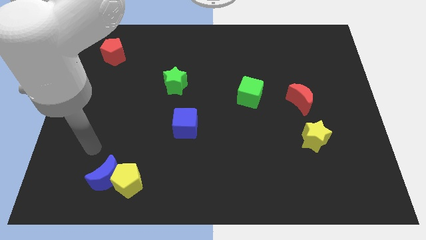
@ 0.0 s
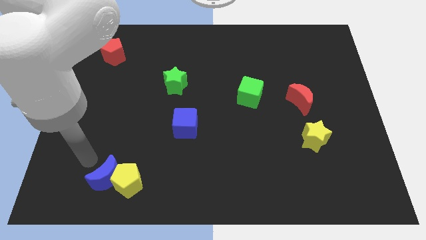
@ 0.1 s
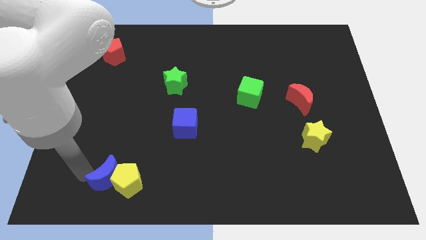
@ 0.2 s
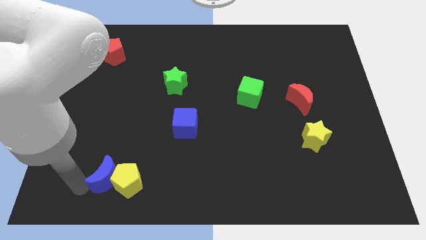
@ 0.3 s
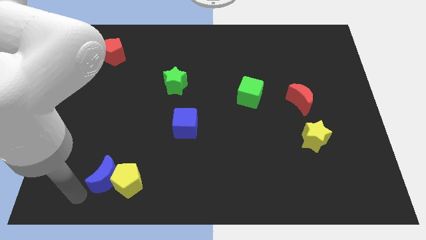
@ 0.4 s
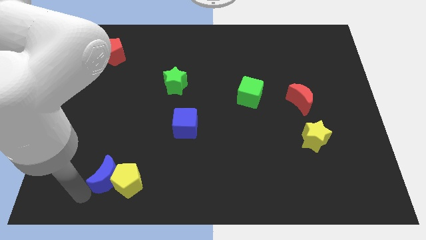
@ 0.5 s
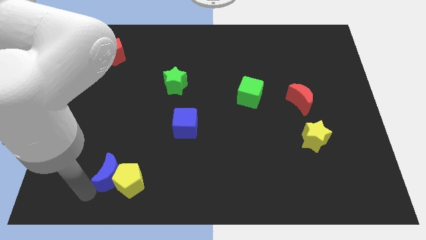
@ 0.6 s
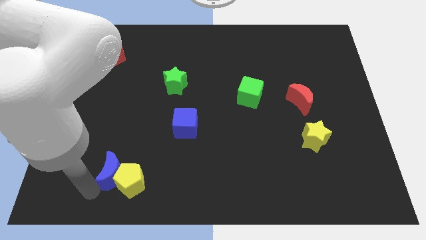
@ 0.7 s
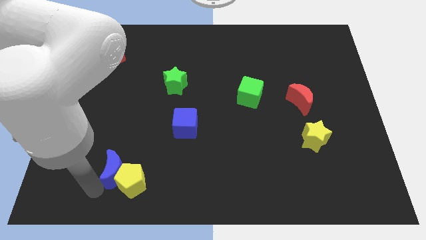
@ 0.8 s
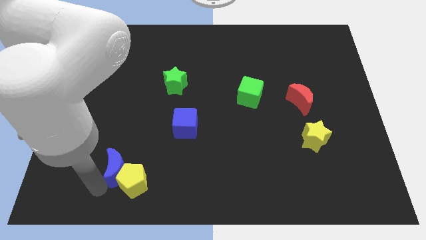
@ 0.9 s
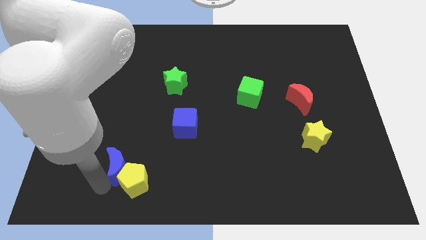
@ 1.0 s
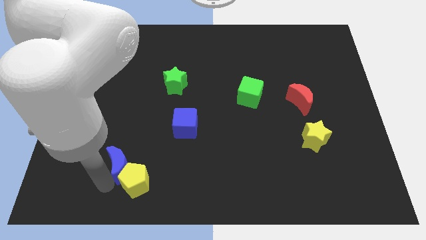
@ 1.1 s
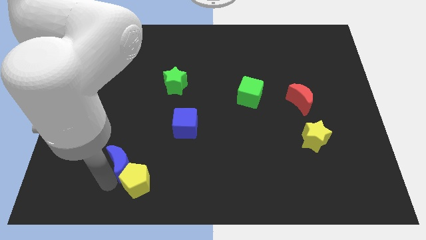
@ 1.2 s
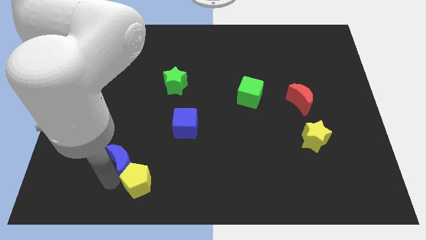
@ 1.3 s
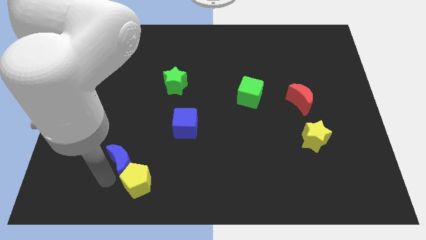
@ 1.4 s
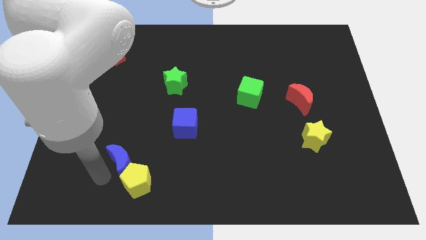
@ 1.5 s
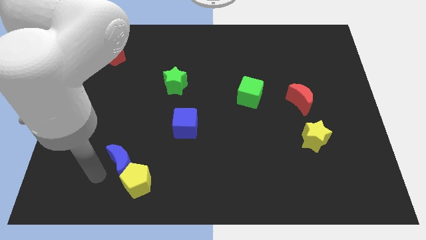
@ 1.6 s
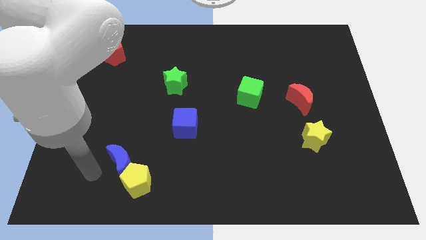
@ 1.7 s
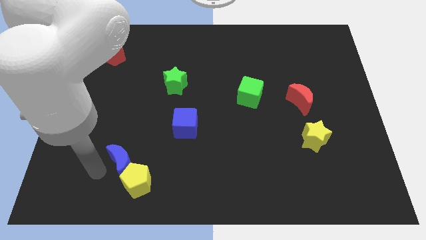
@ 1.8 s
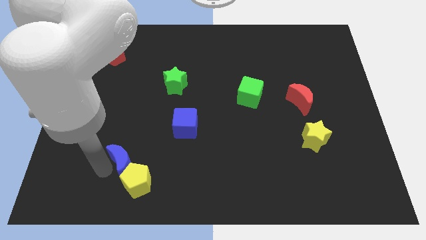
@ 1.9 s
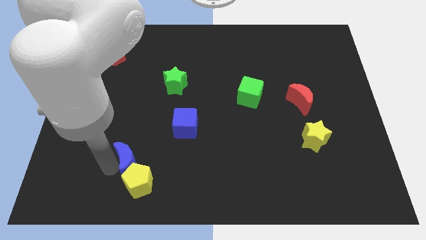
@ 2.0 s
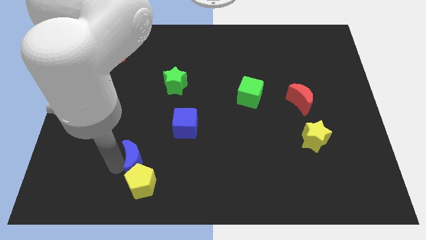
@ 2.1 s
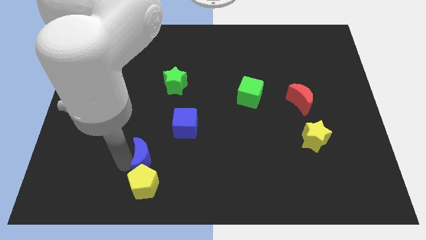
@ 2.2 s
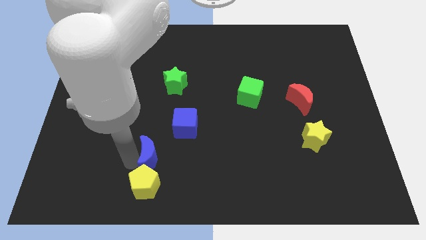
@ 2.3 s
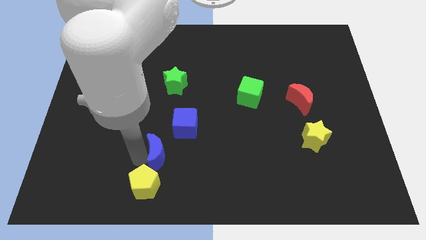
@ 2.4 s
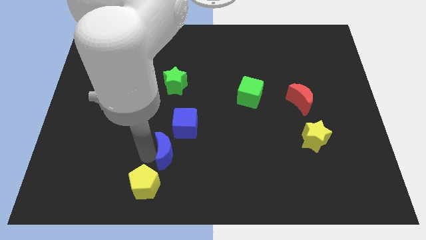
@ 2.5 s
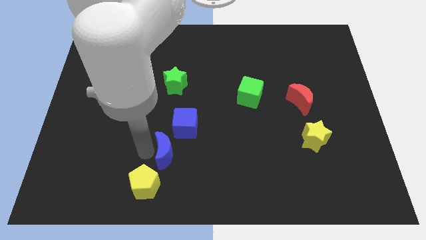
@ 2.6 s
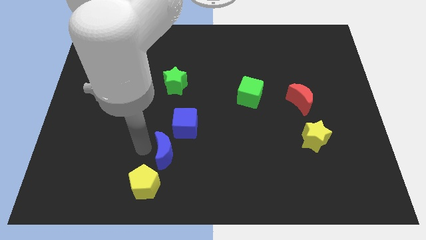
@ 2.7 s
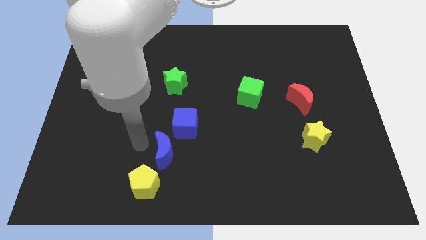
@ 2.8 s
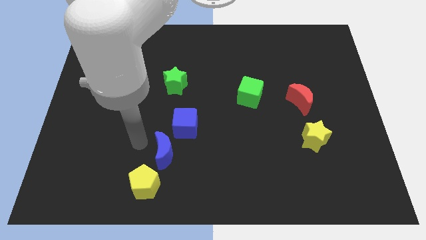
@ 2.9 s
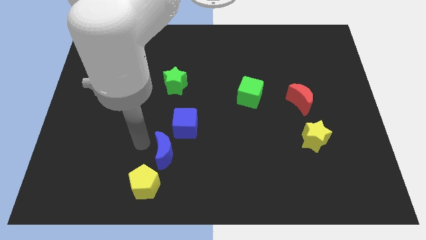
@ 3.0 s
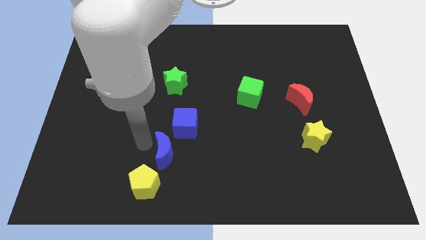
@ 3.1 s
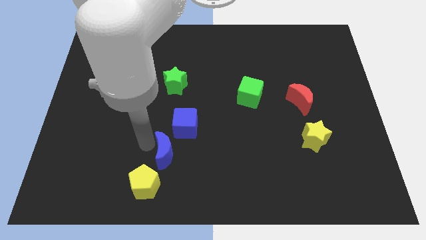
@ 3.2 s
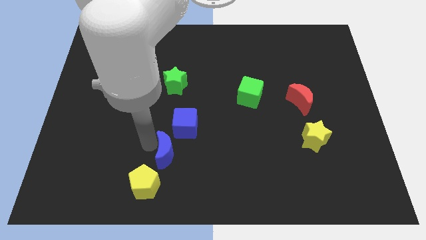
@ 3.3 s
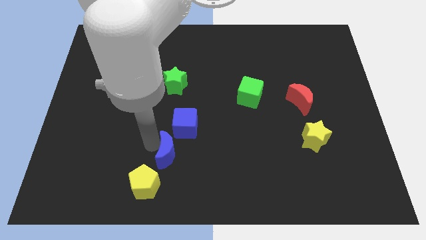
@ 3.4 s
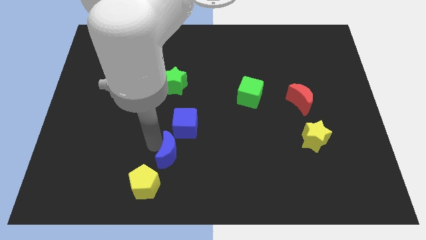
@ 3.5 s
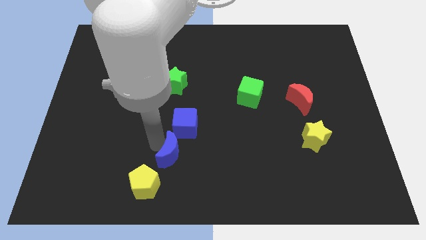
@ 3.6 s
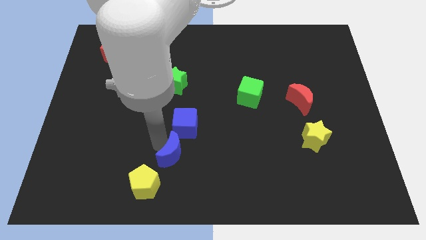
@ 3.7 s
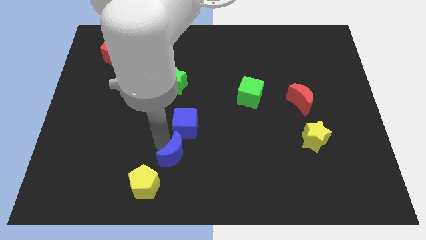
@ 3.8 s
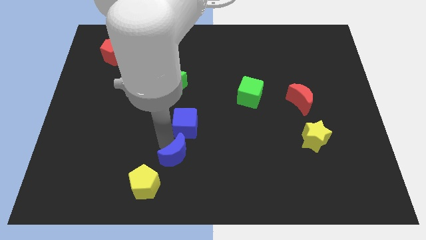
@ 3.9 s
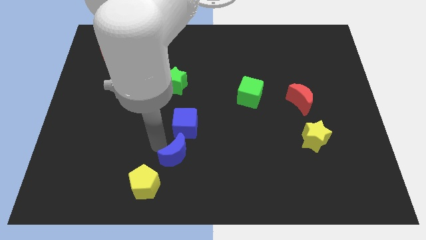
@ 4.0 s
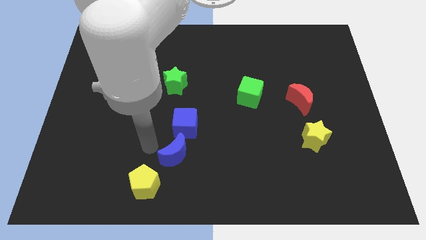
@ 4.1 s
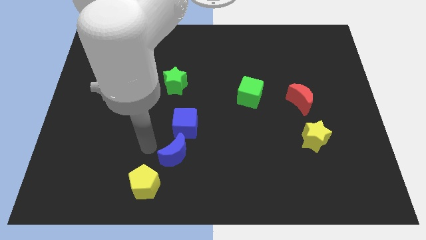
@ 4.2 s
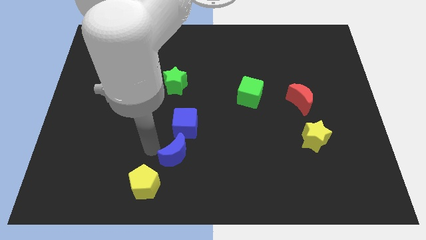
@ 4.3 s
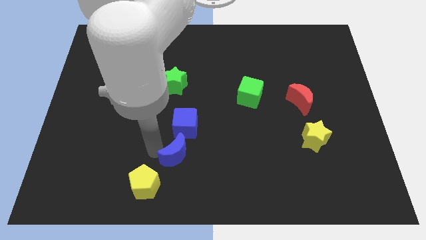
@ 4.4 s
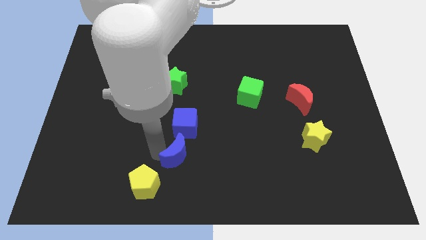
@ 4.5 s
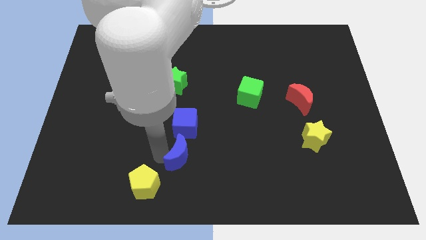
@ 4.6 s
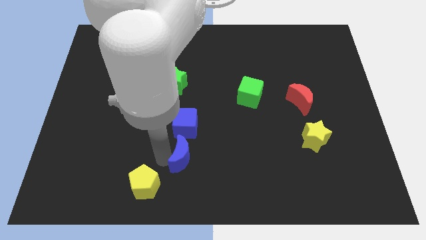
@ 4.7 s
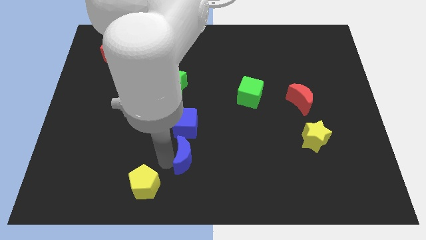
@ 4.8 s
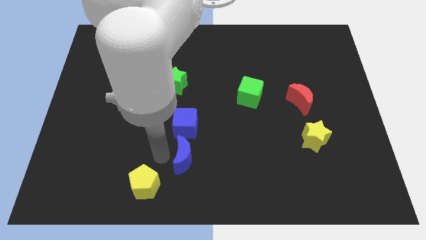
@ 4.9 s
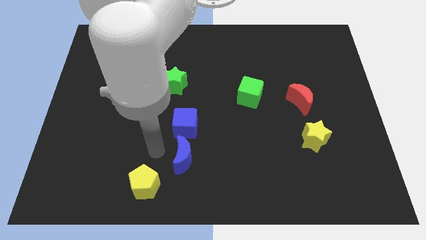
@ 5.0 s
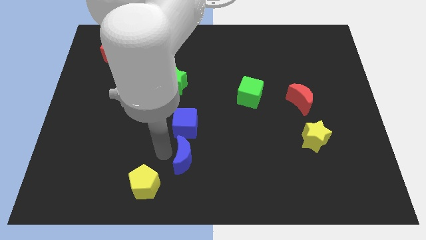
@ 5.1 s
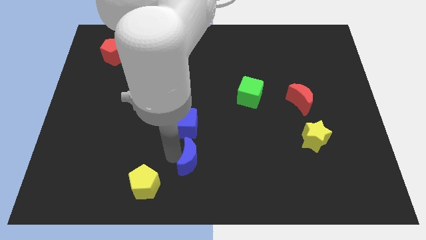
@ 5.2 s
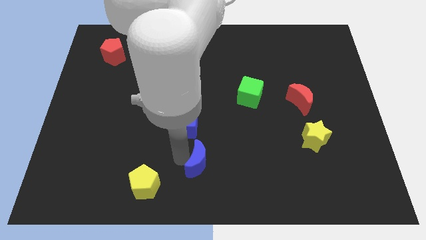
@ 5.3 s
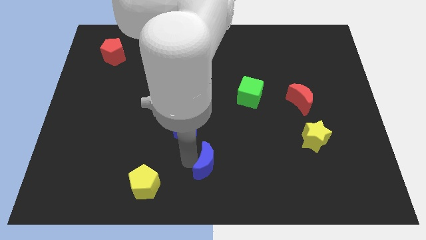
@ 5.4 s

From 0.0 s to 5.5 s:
move the blue moon right

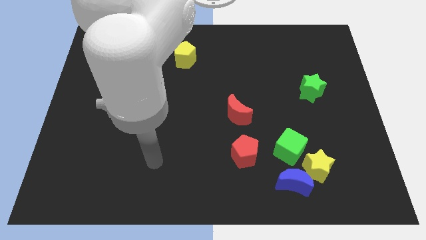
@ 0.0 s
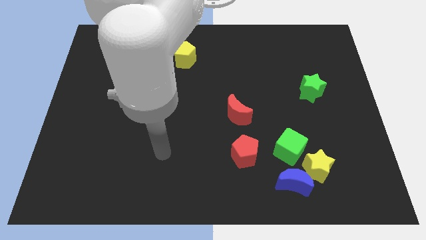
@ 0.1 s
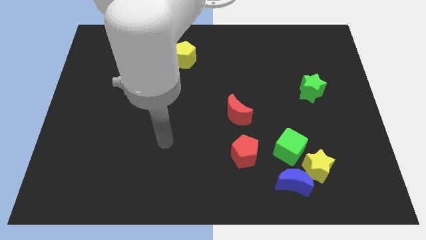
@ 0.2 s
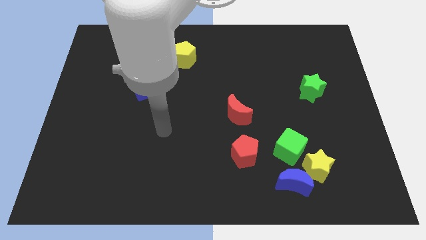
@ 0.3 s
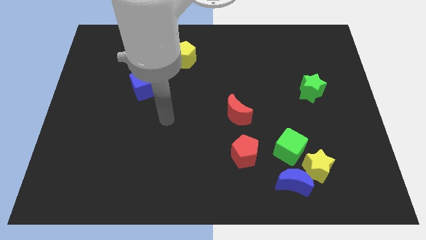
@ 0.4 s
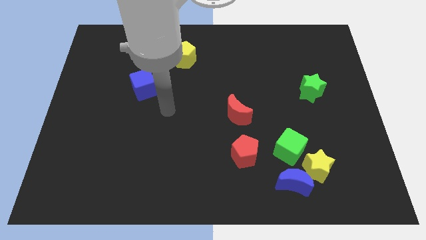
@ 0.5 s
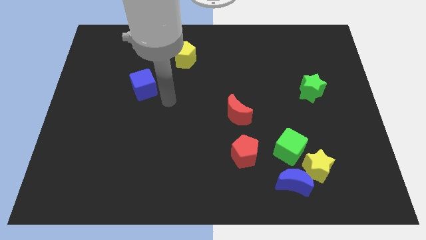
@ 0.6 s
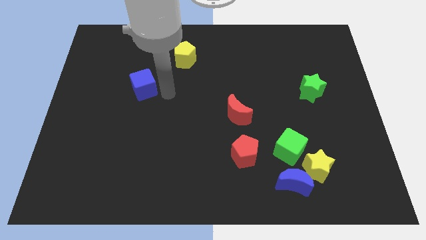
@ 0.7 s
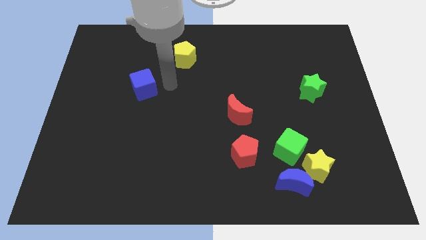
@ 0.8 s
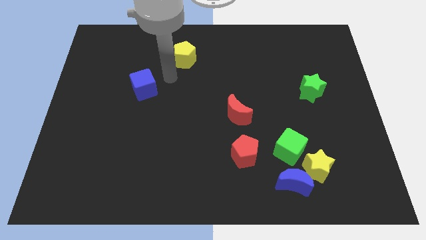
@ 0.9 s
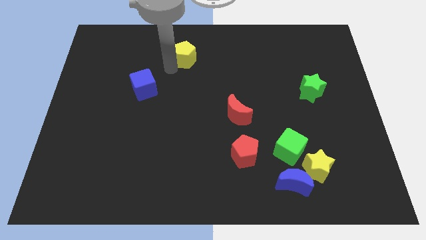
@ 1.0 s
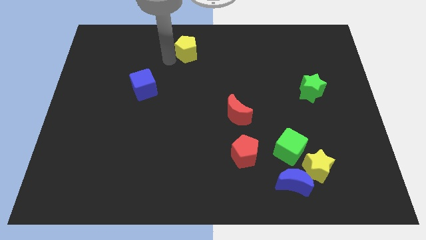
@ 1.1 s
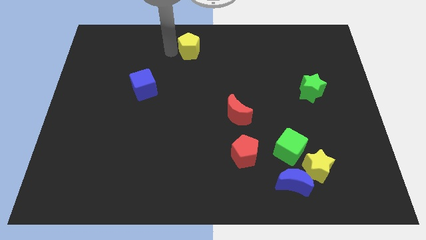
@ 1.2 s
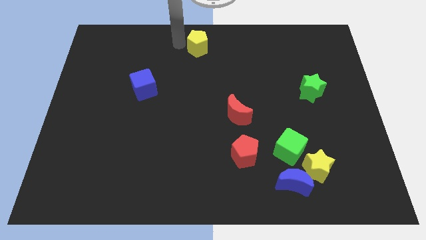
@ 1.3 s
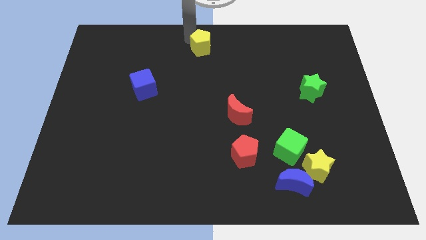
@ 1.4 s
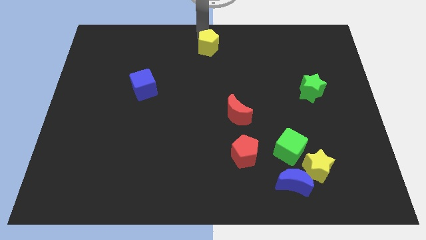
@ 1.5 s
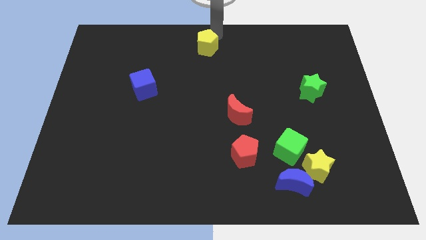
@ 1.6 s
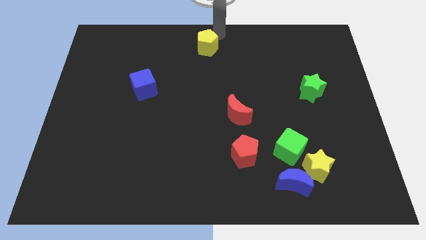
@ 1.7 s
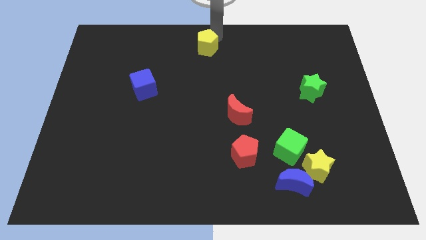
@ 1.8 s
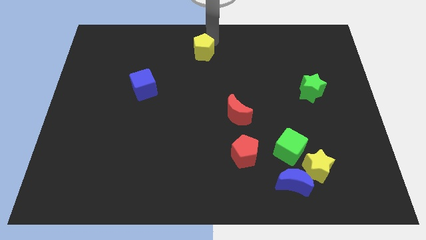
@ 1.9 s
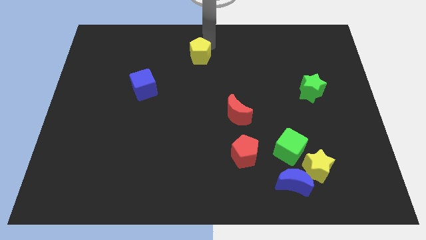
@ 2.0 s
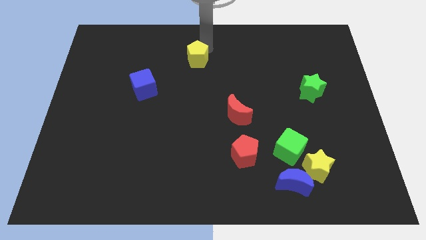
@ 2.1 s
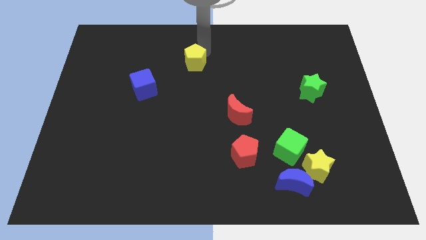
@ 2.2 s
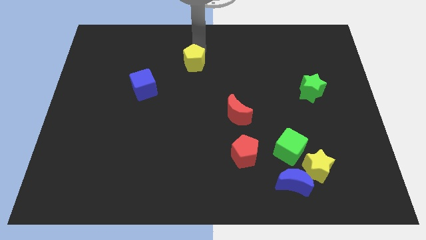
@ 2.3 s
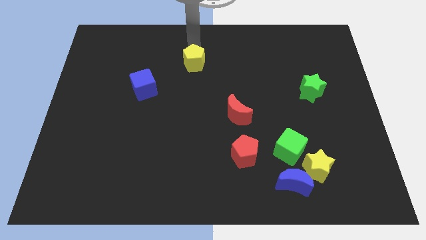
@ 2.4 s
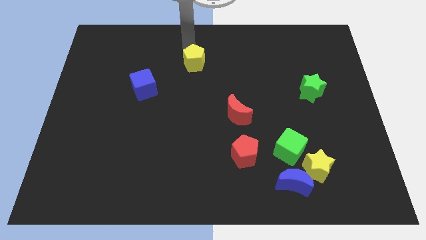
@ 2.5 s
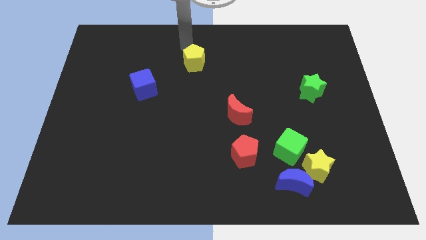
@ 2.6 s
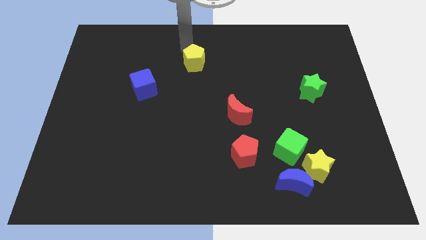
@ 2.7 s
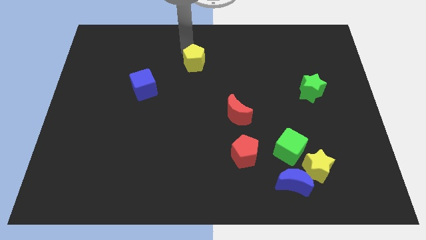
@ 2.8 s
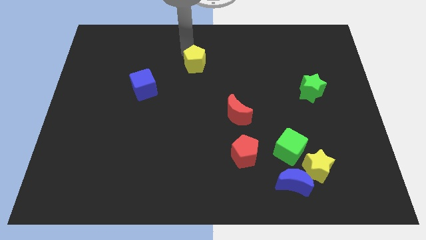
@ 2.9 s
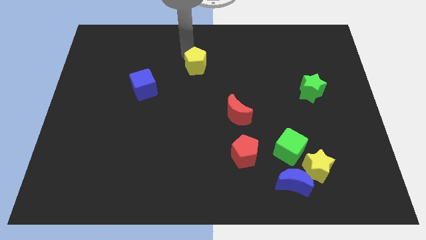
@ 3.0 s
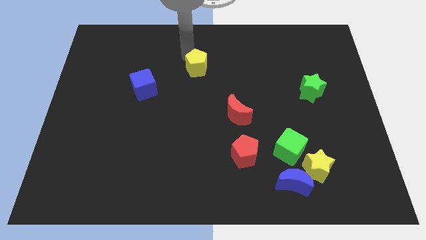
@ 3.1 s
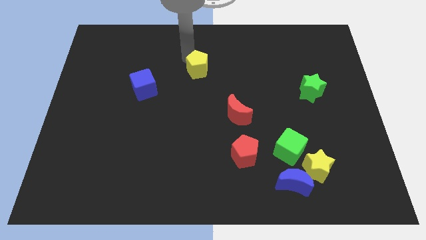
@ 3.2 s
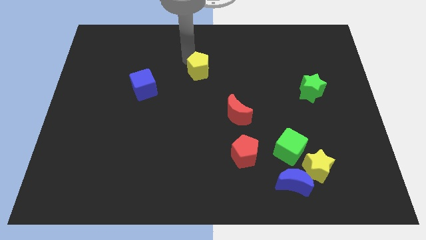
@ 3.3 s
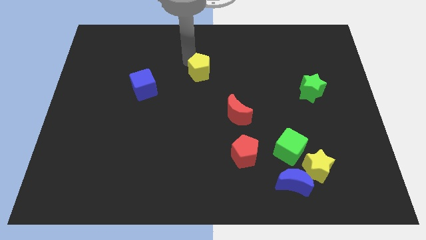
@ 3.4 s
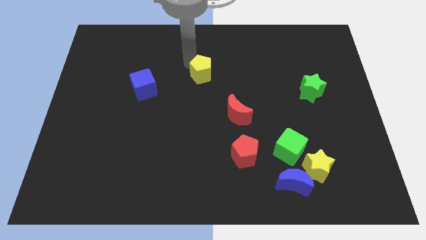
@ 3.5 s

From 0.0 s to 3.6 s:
move the yellow pentagon down and right diagonally somewhat
